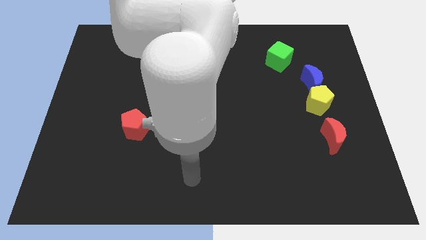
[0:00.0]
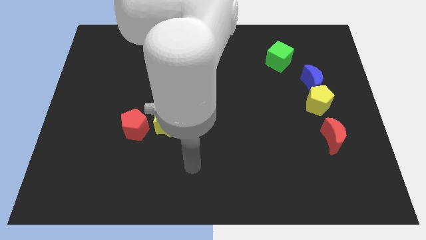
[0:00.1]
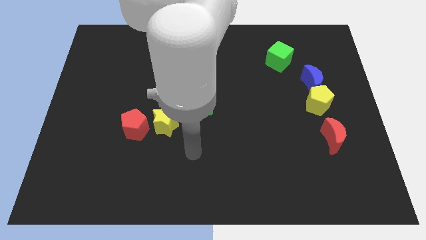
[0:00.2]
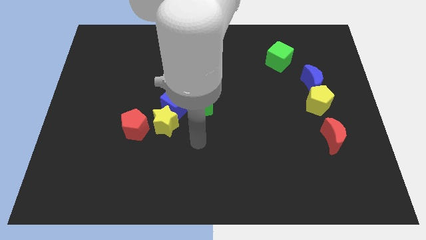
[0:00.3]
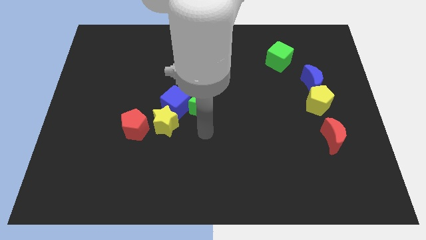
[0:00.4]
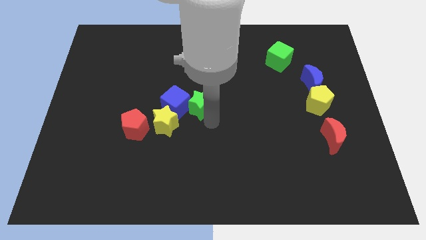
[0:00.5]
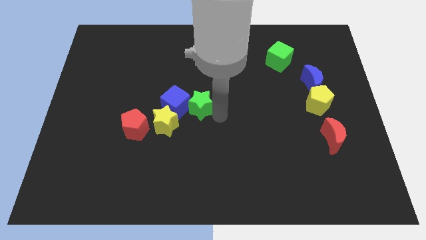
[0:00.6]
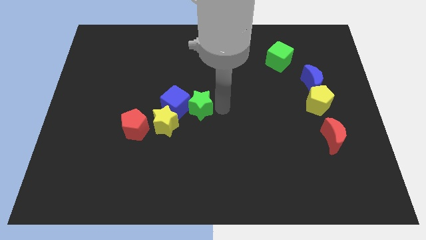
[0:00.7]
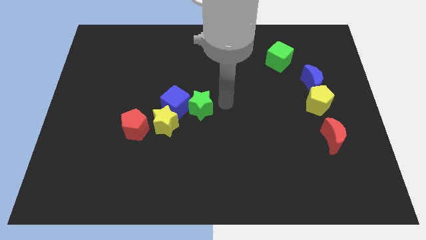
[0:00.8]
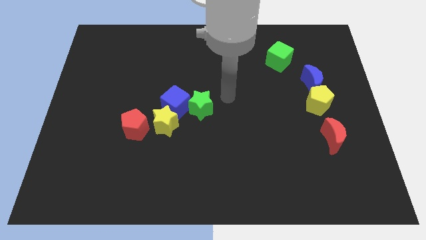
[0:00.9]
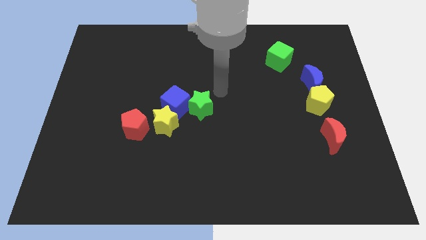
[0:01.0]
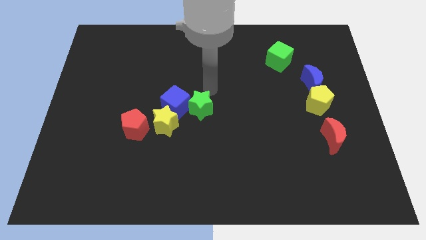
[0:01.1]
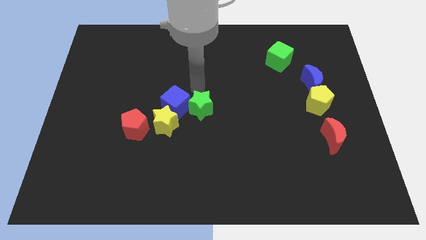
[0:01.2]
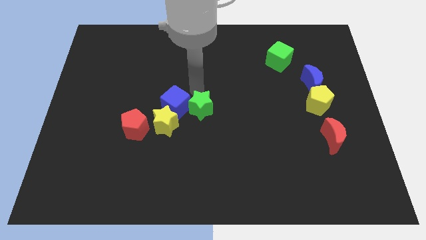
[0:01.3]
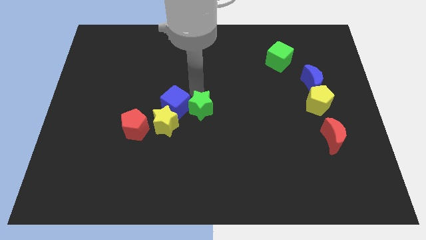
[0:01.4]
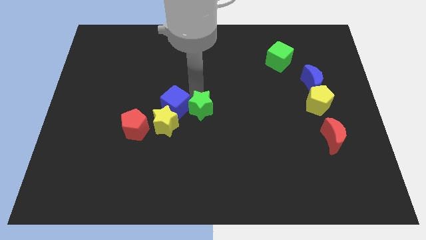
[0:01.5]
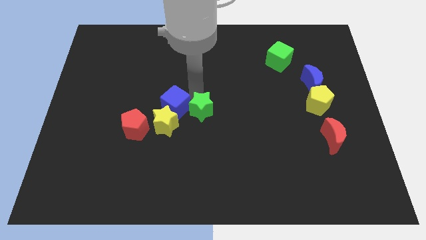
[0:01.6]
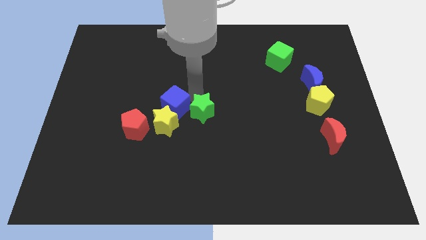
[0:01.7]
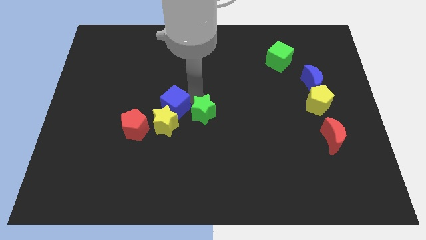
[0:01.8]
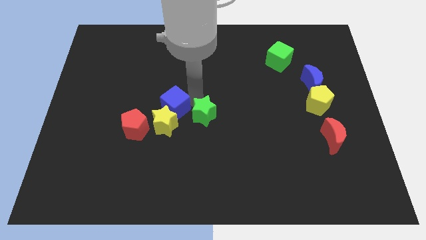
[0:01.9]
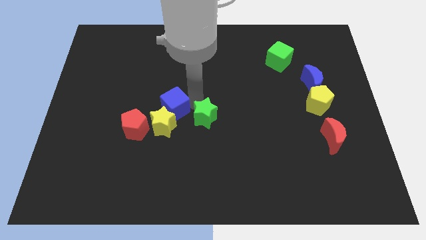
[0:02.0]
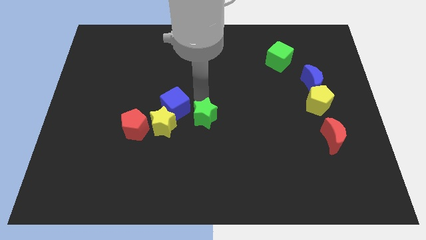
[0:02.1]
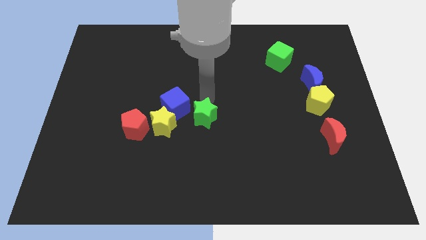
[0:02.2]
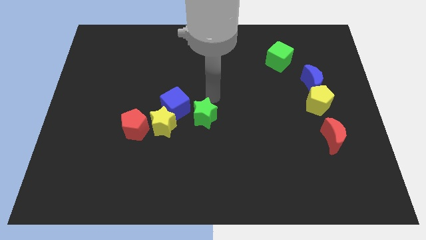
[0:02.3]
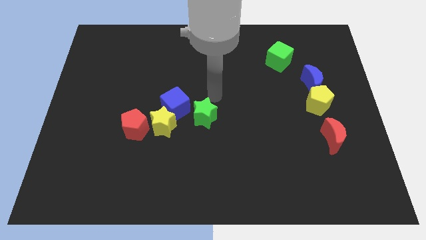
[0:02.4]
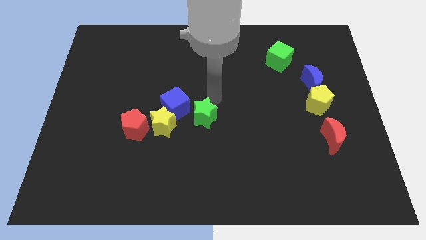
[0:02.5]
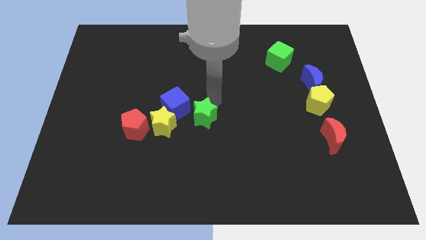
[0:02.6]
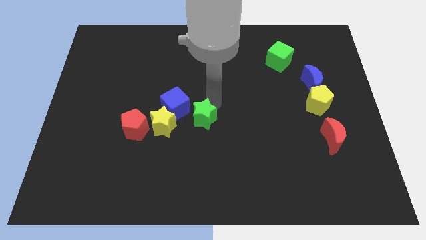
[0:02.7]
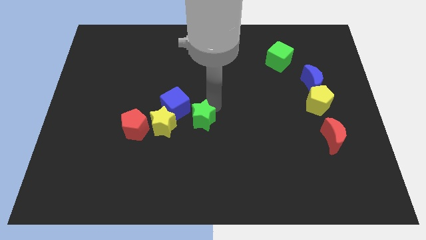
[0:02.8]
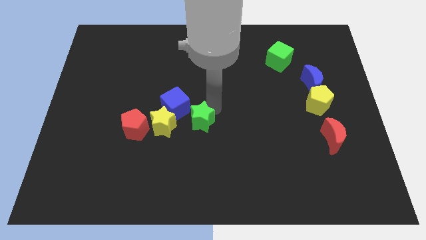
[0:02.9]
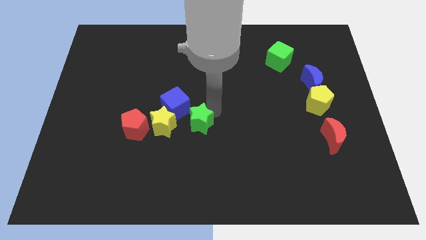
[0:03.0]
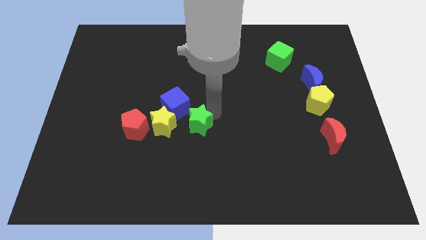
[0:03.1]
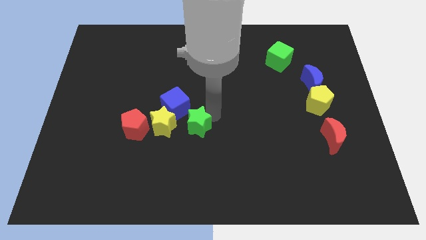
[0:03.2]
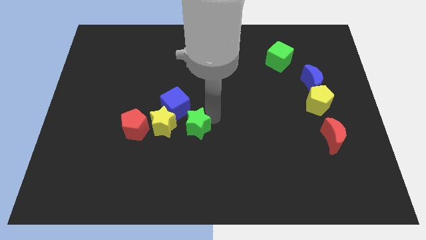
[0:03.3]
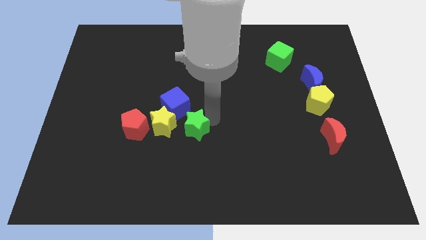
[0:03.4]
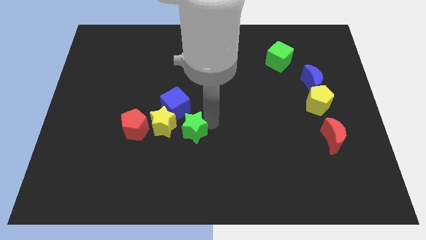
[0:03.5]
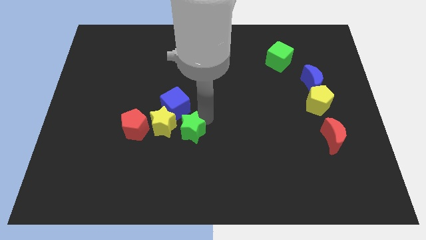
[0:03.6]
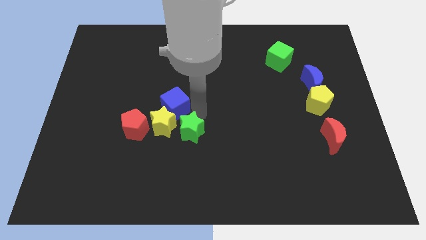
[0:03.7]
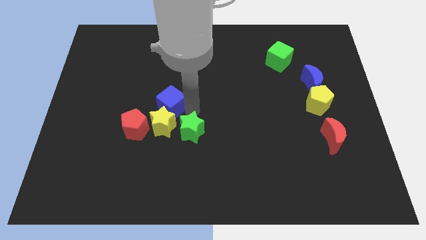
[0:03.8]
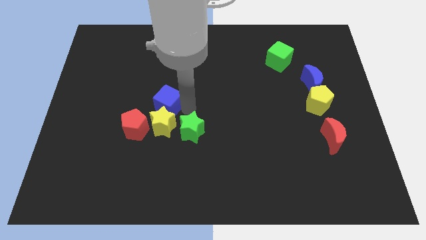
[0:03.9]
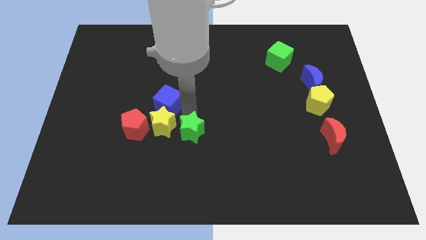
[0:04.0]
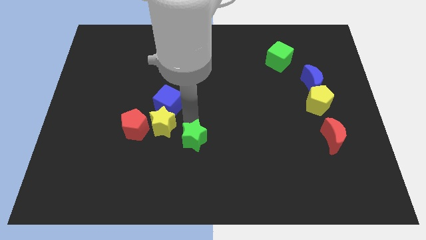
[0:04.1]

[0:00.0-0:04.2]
move the green star downwards slightly

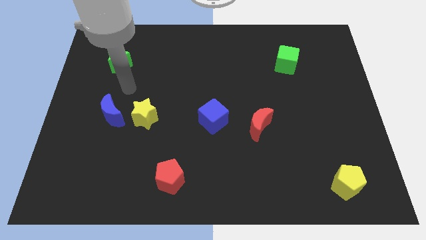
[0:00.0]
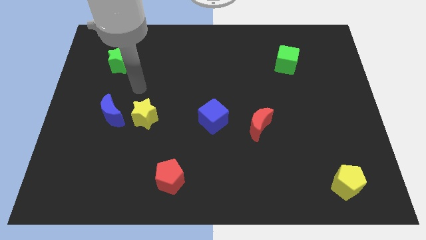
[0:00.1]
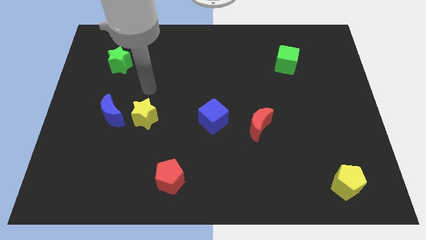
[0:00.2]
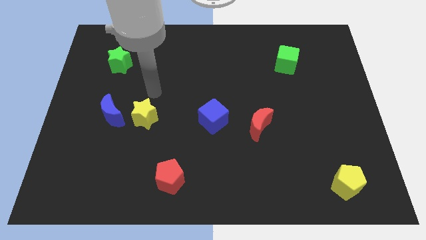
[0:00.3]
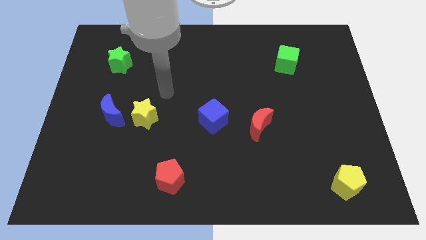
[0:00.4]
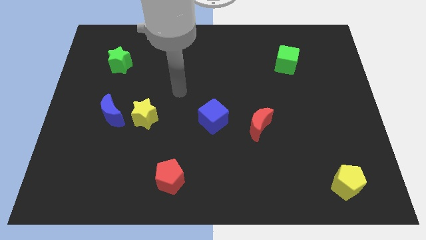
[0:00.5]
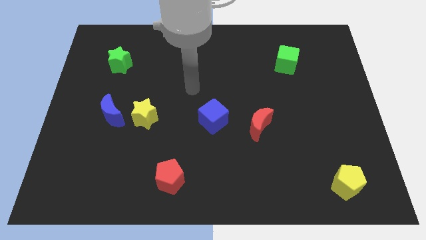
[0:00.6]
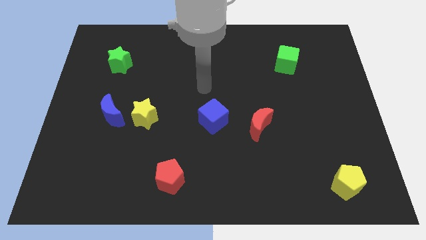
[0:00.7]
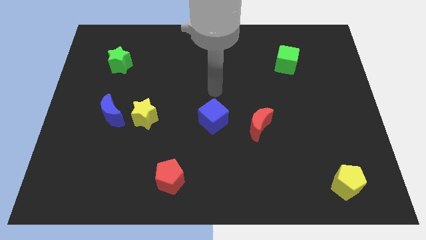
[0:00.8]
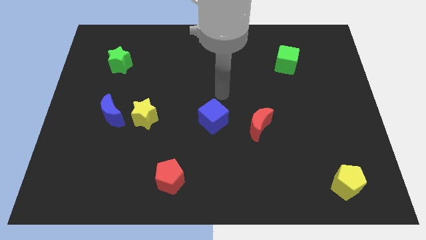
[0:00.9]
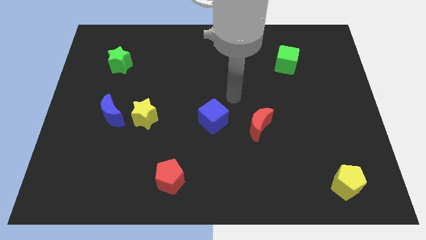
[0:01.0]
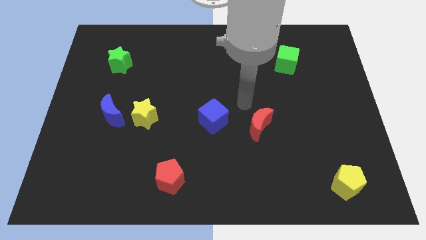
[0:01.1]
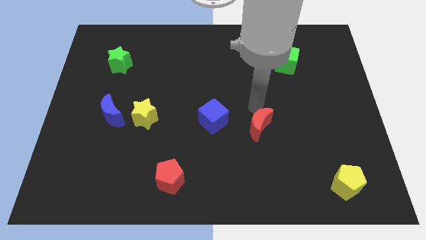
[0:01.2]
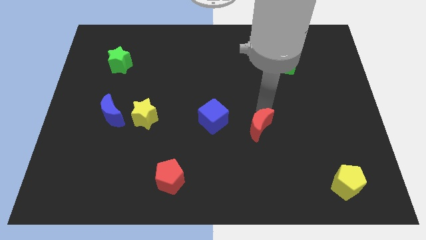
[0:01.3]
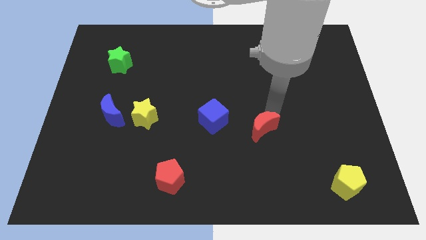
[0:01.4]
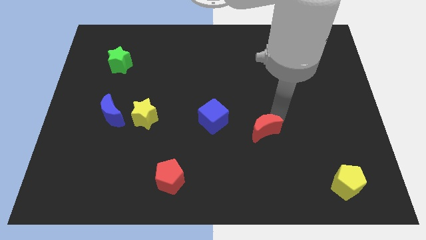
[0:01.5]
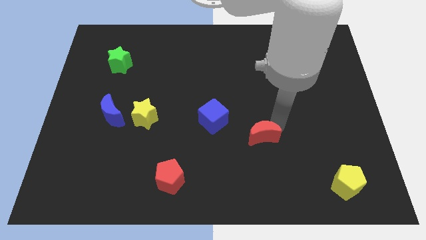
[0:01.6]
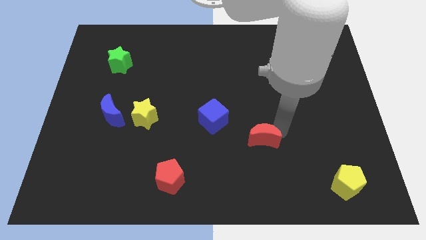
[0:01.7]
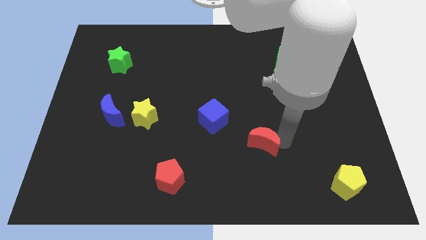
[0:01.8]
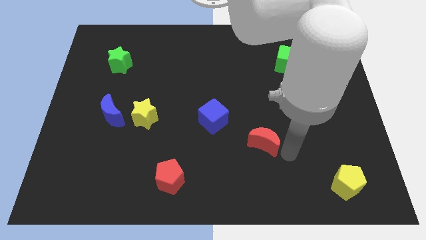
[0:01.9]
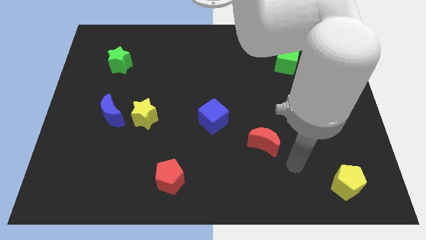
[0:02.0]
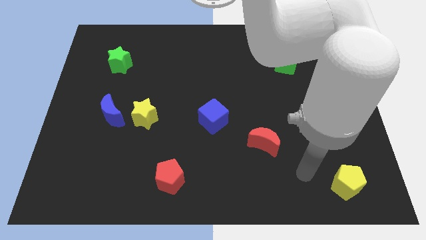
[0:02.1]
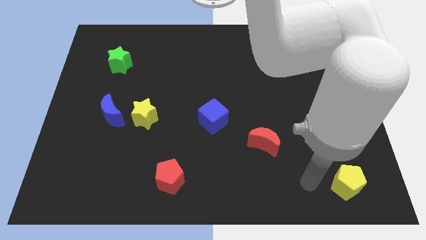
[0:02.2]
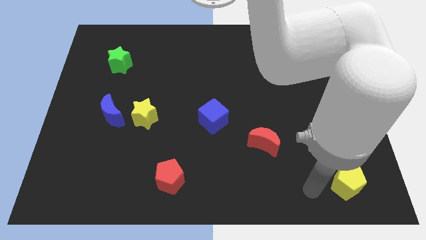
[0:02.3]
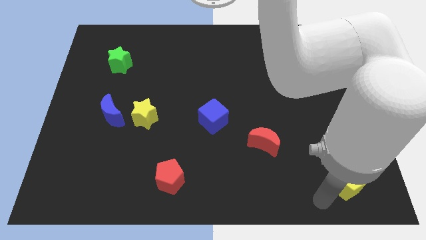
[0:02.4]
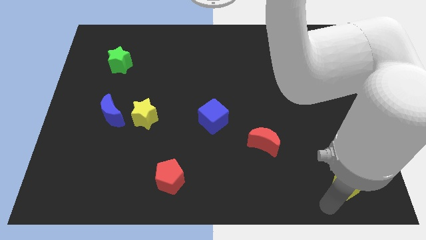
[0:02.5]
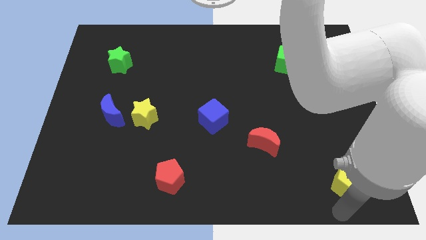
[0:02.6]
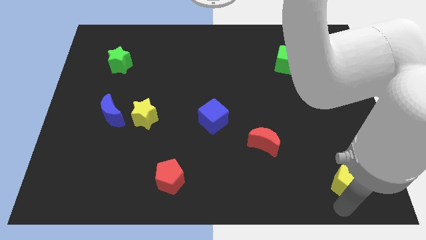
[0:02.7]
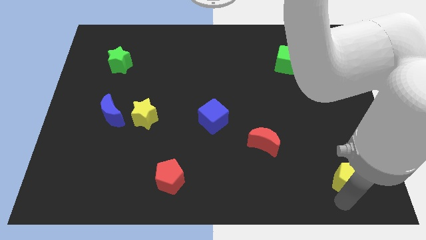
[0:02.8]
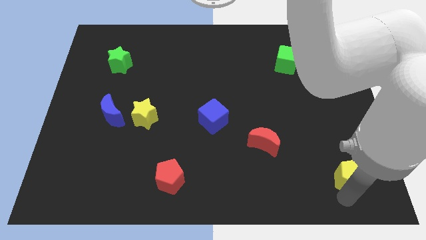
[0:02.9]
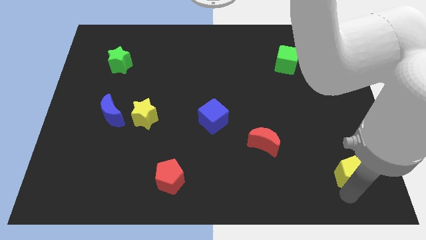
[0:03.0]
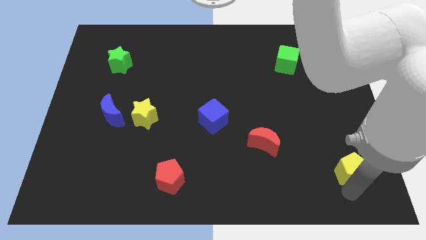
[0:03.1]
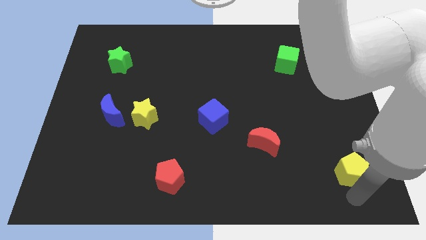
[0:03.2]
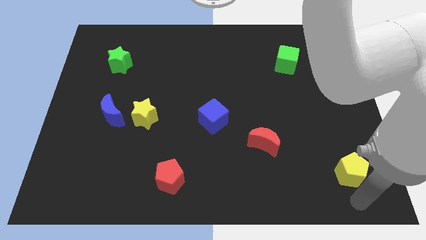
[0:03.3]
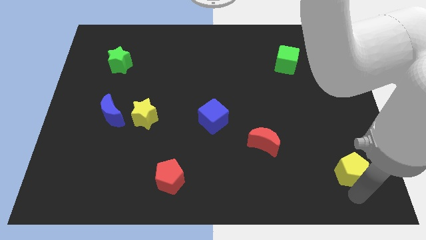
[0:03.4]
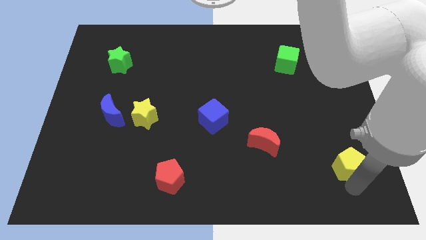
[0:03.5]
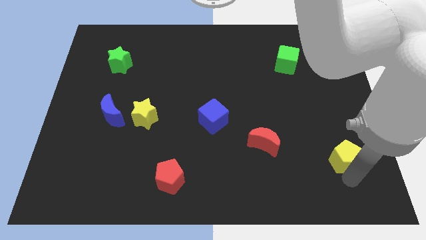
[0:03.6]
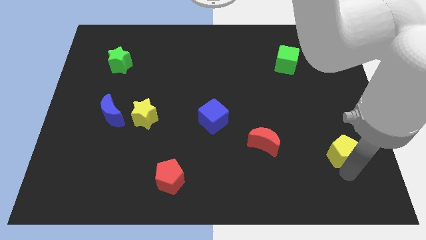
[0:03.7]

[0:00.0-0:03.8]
slide the yellow pentagon up a little bit

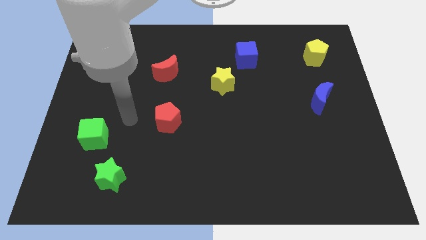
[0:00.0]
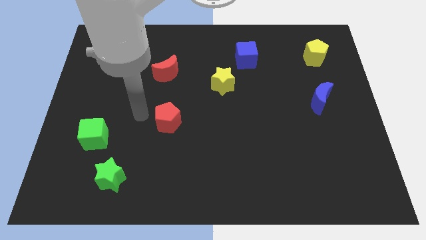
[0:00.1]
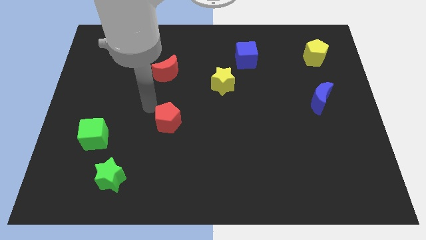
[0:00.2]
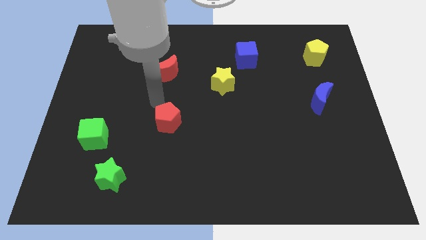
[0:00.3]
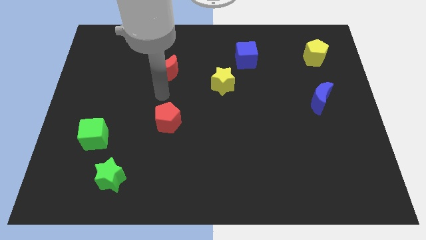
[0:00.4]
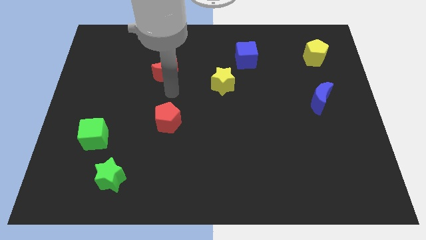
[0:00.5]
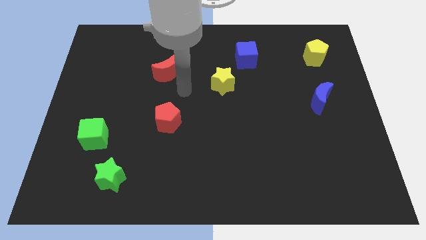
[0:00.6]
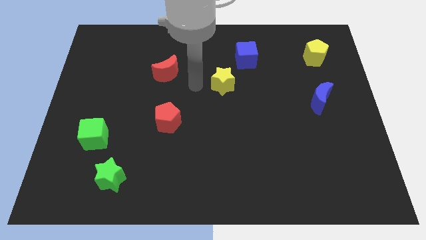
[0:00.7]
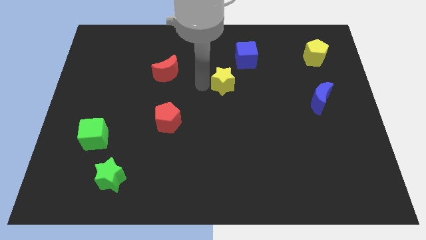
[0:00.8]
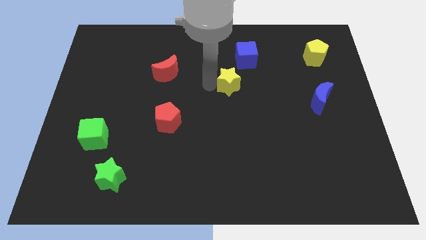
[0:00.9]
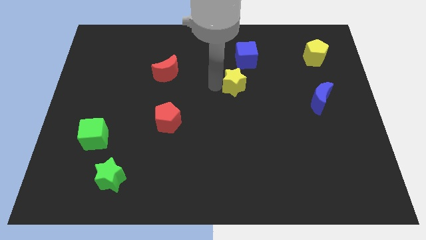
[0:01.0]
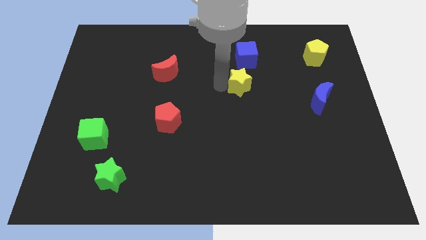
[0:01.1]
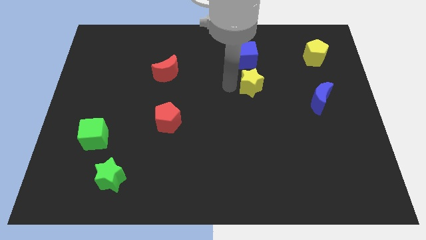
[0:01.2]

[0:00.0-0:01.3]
slide the yellow star a bit right
